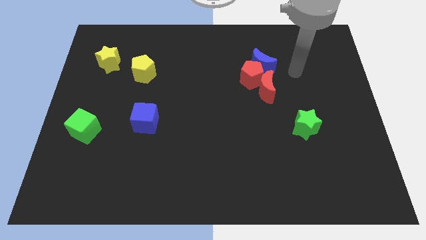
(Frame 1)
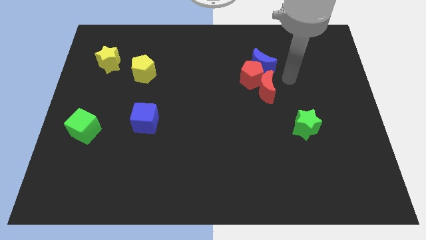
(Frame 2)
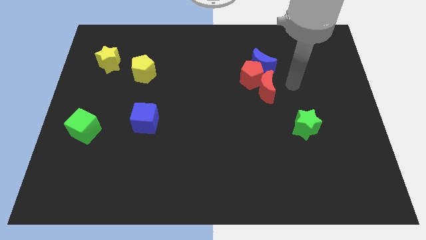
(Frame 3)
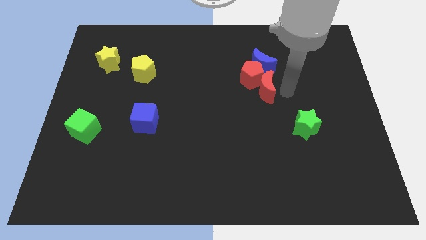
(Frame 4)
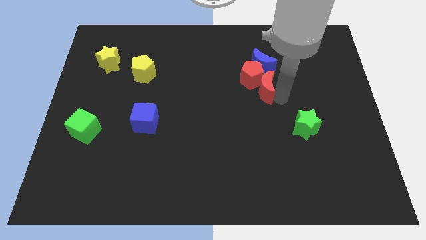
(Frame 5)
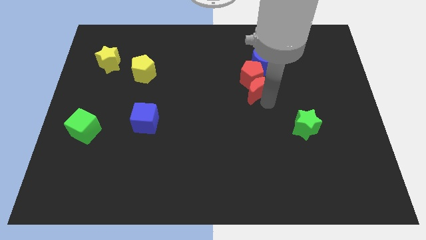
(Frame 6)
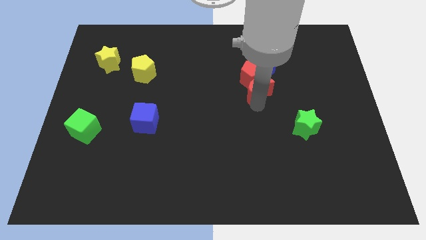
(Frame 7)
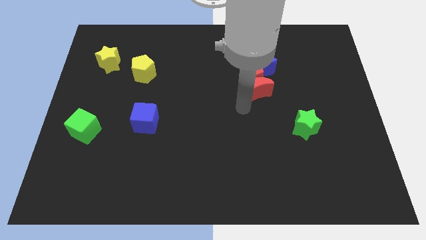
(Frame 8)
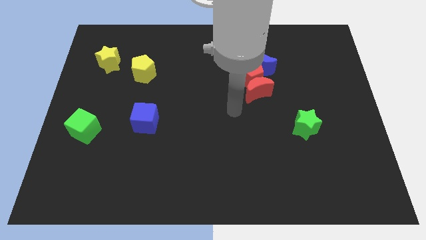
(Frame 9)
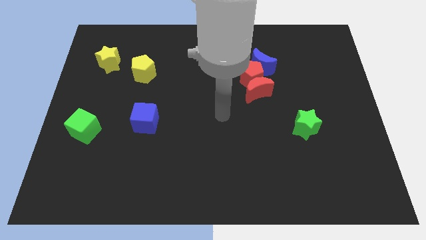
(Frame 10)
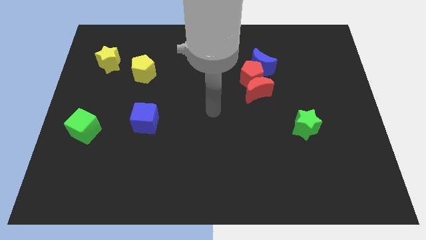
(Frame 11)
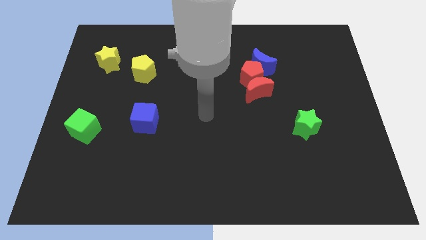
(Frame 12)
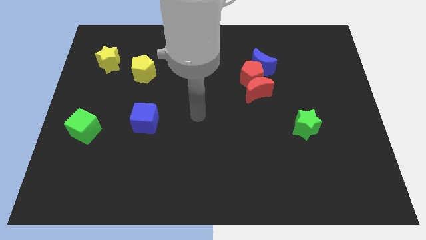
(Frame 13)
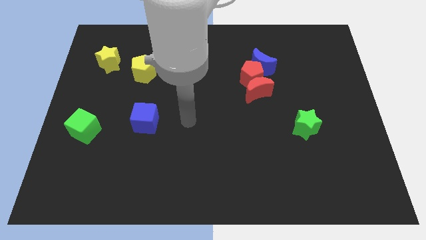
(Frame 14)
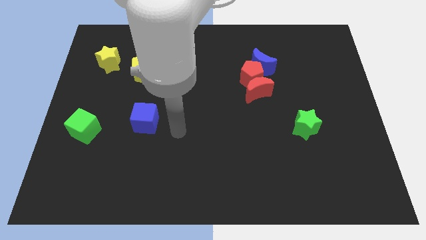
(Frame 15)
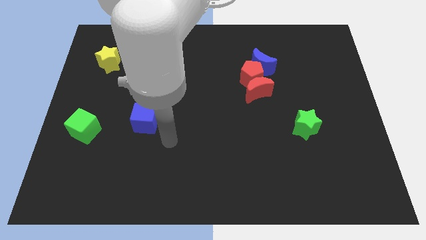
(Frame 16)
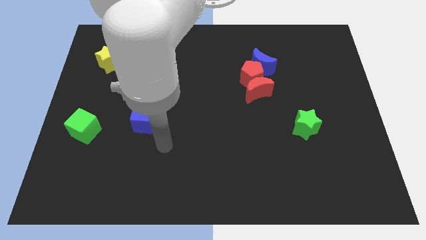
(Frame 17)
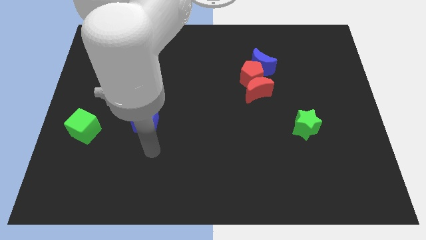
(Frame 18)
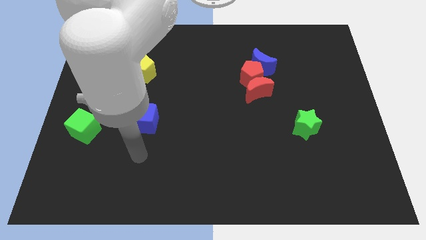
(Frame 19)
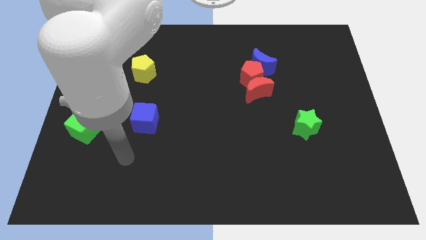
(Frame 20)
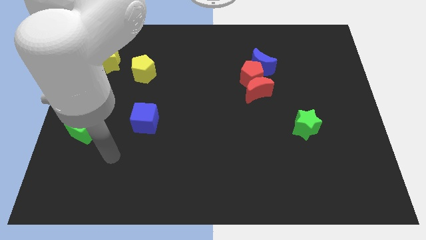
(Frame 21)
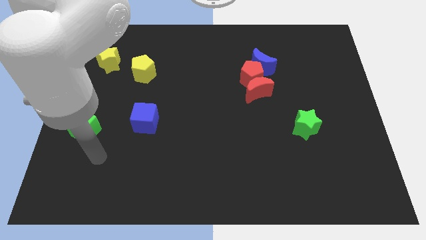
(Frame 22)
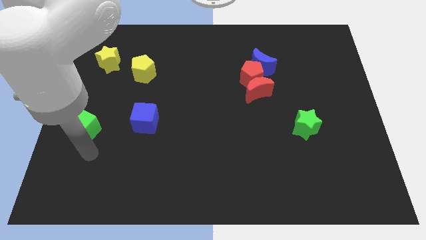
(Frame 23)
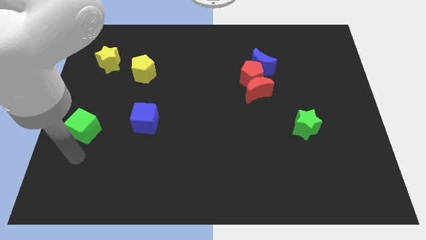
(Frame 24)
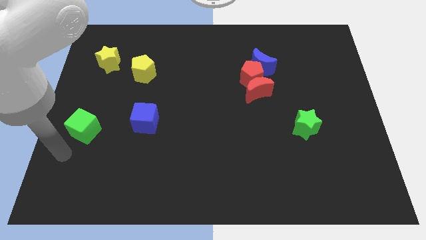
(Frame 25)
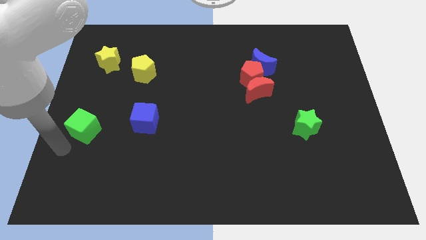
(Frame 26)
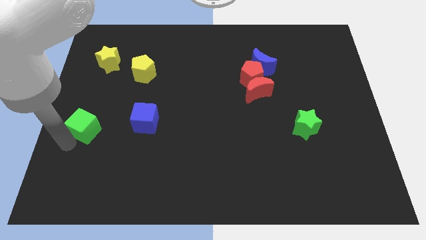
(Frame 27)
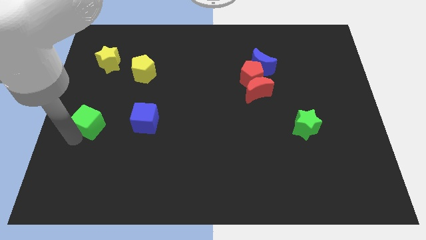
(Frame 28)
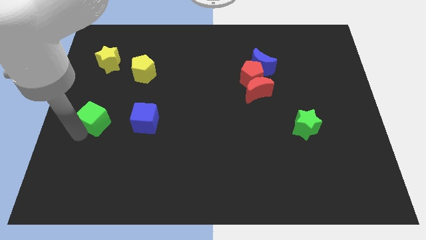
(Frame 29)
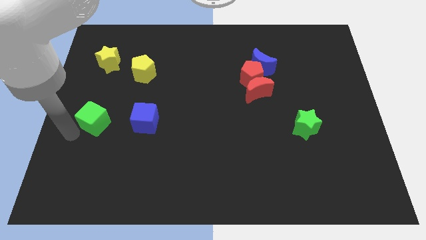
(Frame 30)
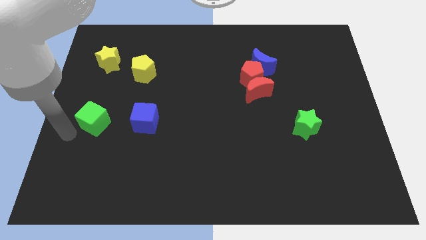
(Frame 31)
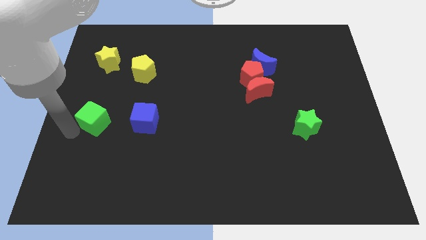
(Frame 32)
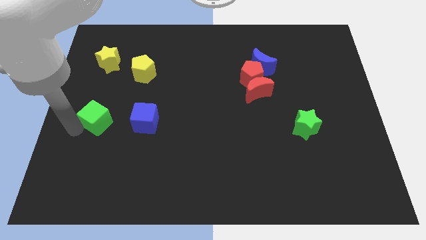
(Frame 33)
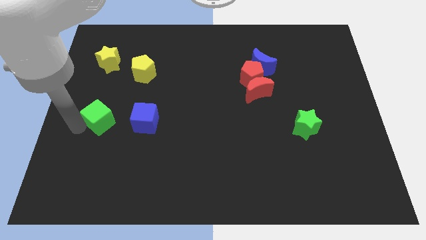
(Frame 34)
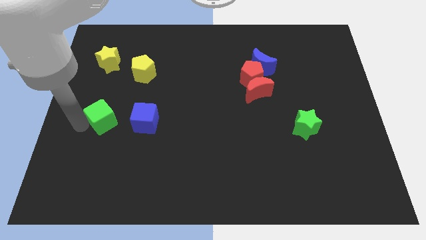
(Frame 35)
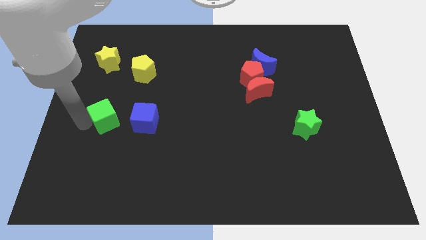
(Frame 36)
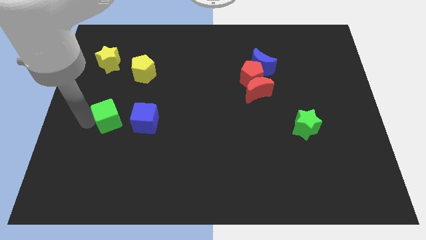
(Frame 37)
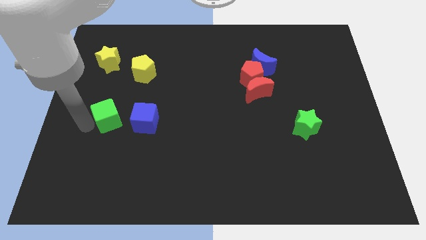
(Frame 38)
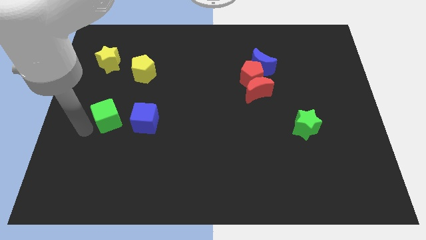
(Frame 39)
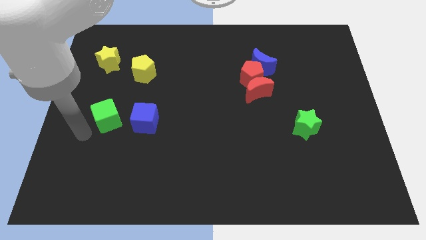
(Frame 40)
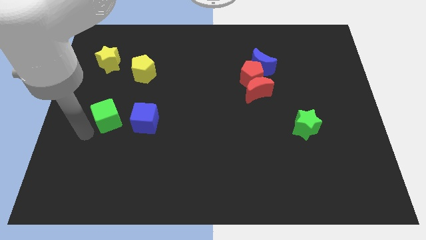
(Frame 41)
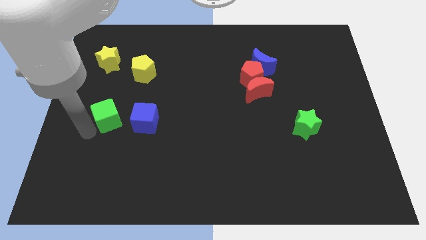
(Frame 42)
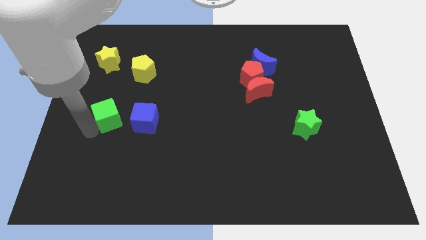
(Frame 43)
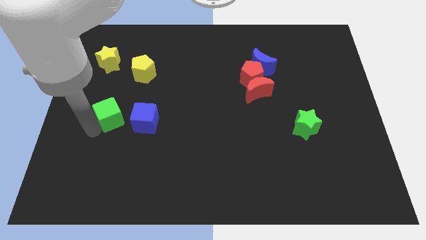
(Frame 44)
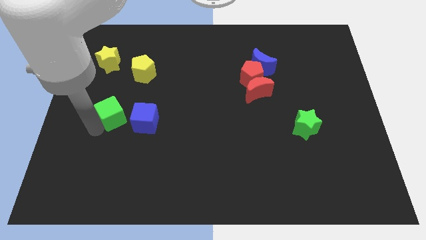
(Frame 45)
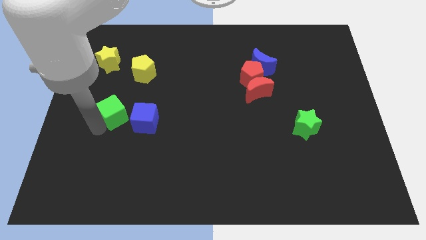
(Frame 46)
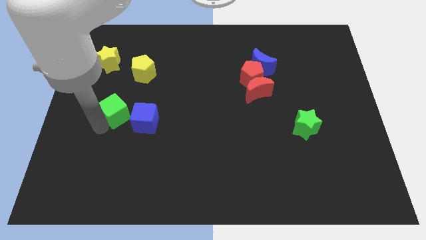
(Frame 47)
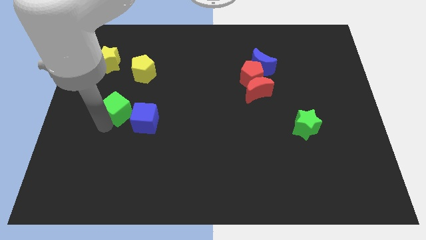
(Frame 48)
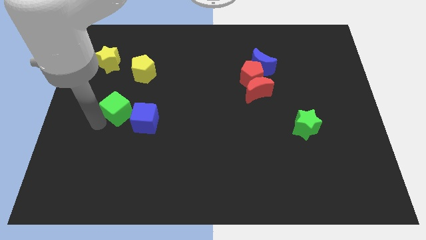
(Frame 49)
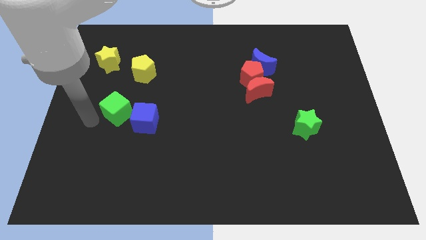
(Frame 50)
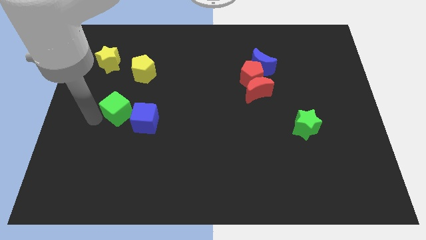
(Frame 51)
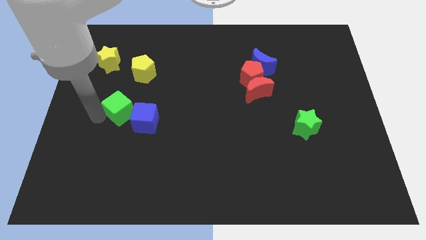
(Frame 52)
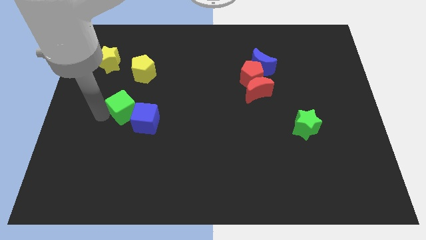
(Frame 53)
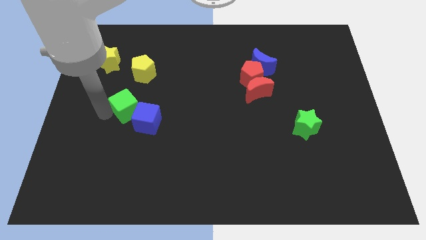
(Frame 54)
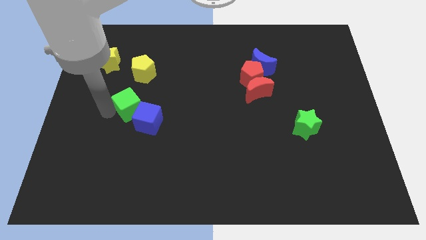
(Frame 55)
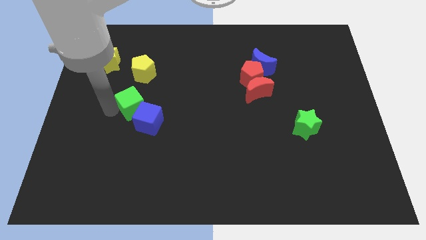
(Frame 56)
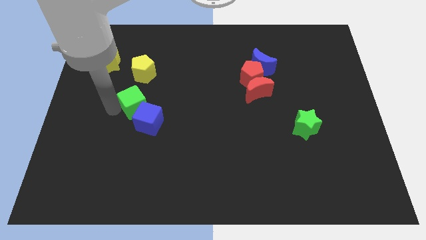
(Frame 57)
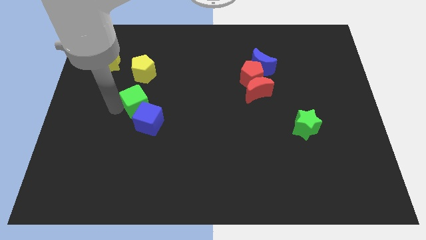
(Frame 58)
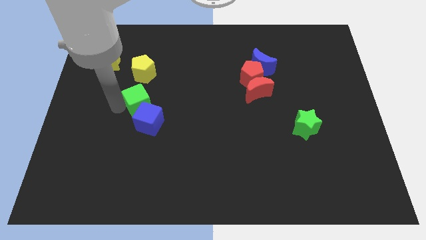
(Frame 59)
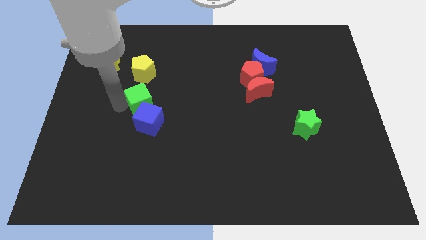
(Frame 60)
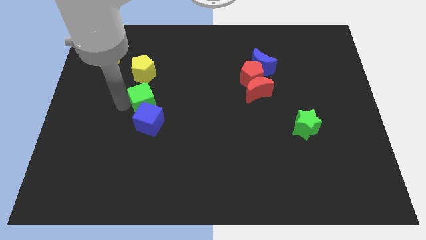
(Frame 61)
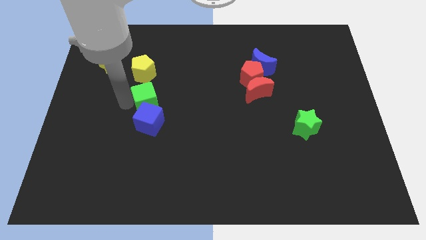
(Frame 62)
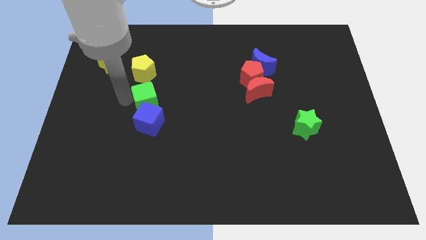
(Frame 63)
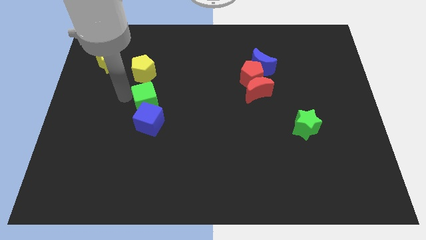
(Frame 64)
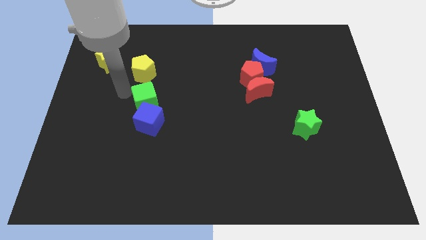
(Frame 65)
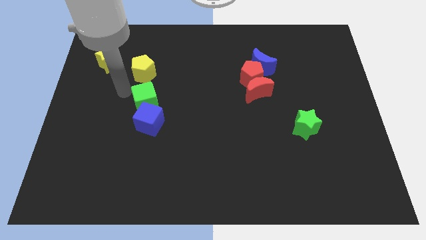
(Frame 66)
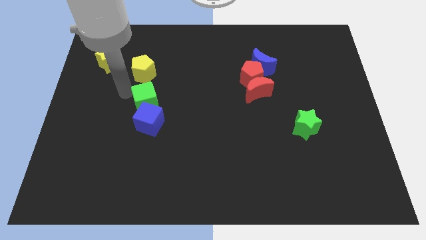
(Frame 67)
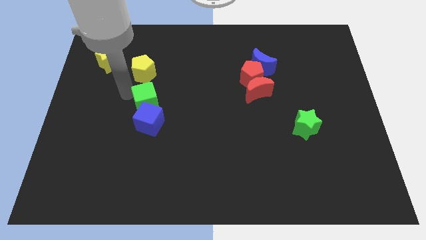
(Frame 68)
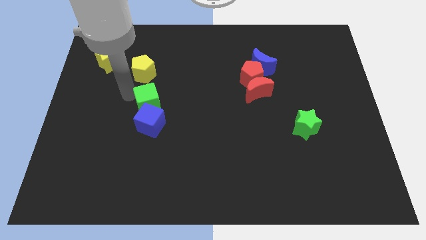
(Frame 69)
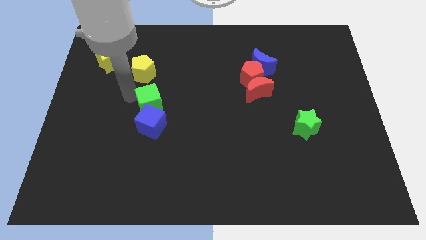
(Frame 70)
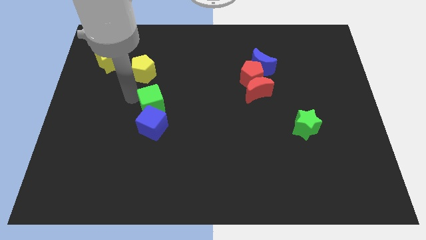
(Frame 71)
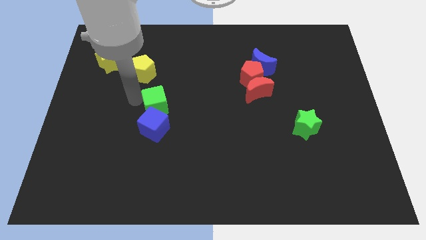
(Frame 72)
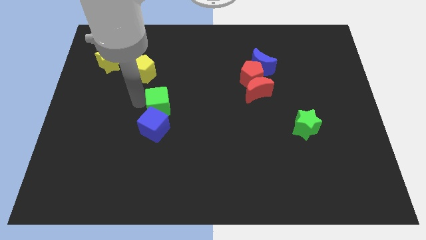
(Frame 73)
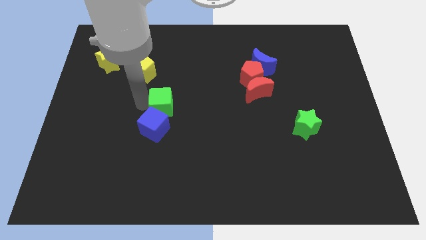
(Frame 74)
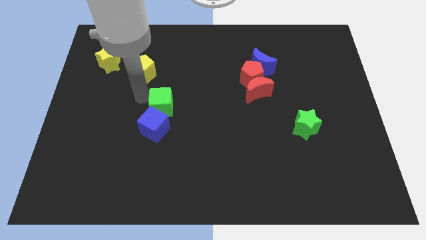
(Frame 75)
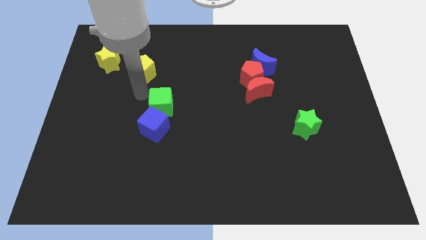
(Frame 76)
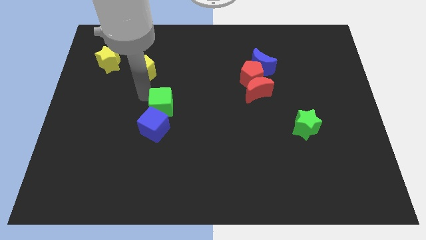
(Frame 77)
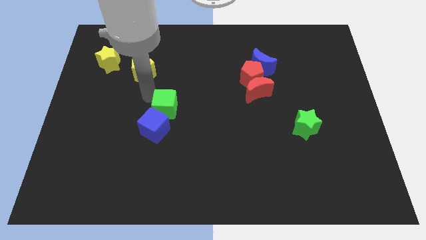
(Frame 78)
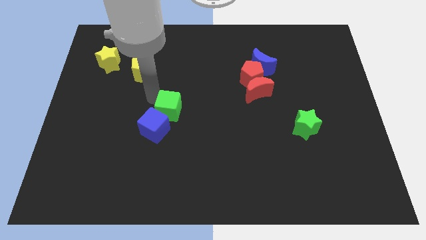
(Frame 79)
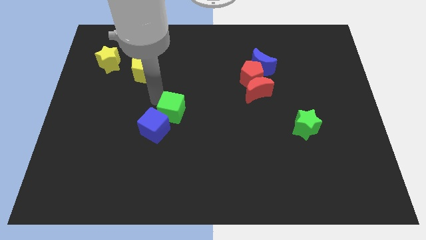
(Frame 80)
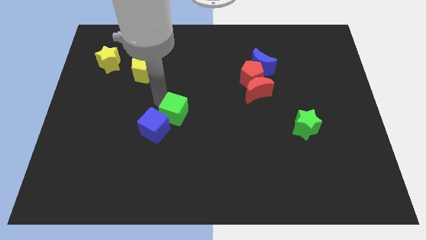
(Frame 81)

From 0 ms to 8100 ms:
move the green cube just right of the blue cube
